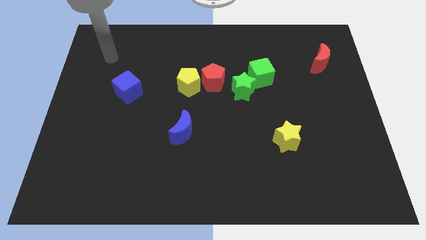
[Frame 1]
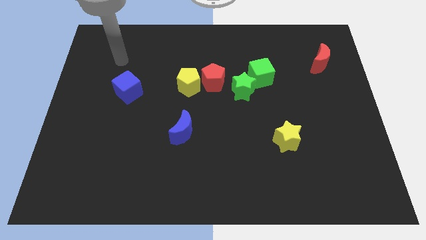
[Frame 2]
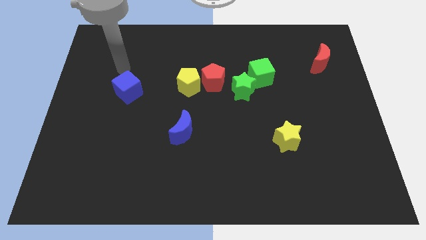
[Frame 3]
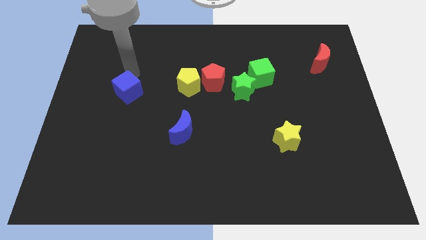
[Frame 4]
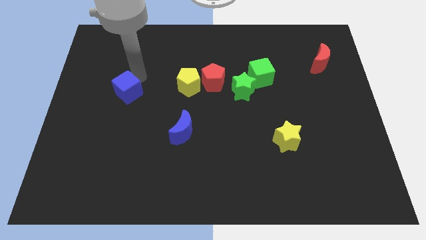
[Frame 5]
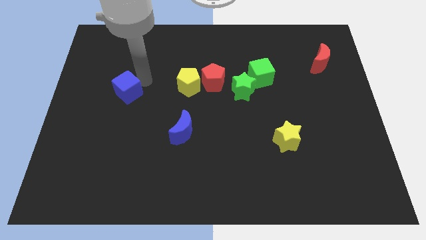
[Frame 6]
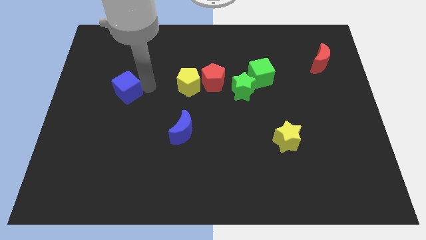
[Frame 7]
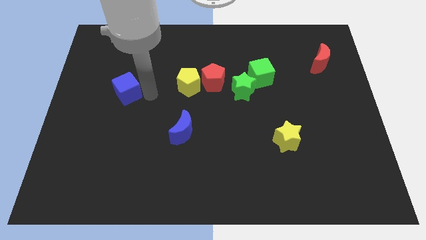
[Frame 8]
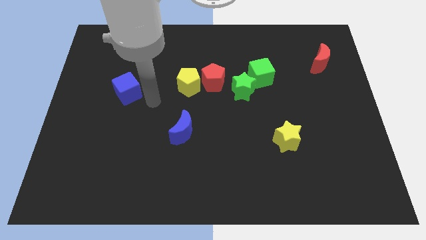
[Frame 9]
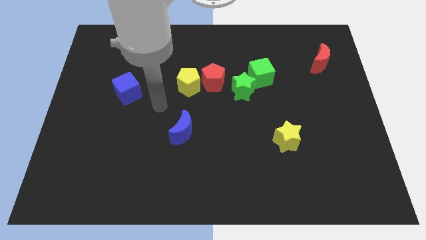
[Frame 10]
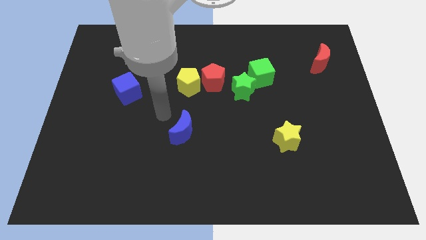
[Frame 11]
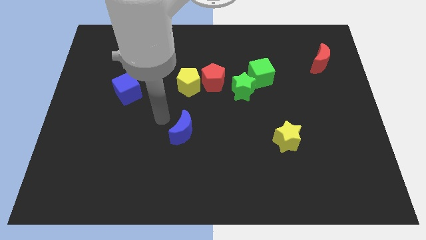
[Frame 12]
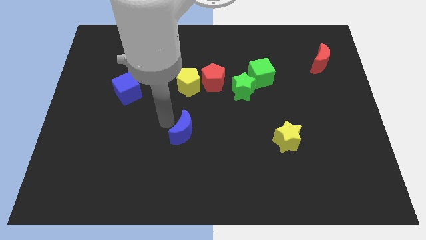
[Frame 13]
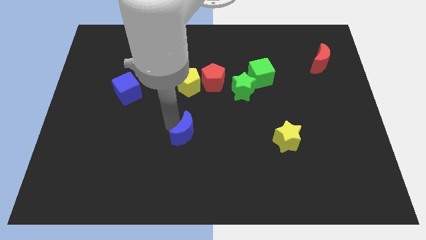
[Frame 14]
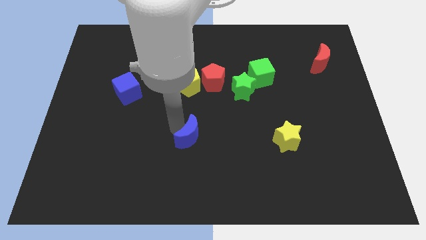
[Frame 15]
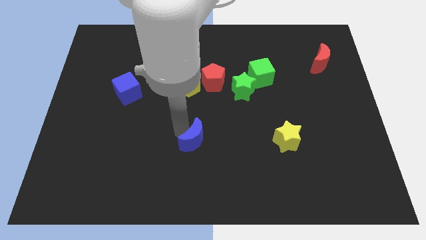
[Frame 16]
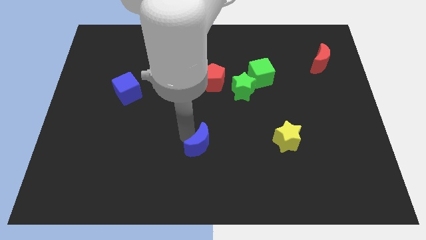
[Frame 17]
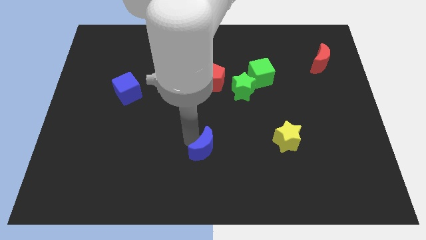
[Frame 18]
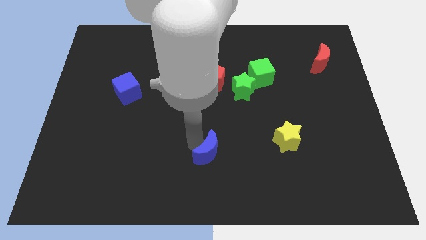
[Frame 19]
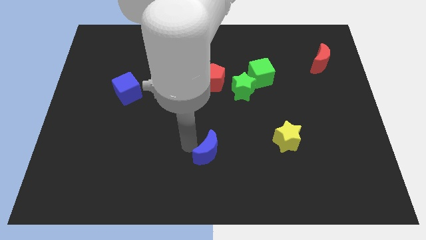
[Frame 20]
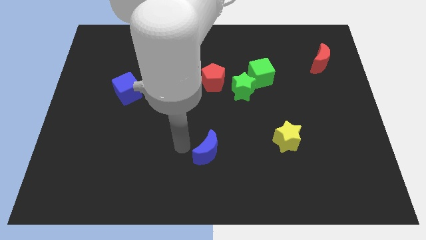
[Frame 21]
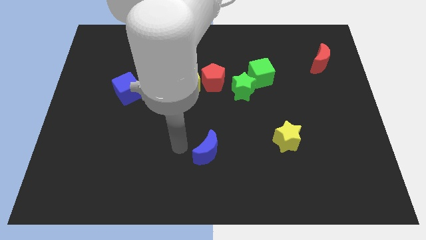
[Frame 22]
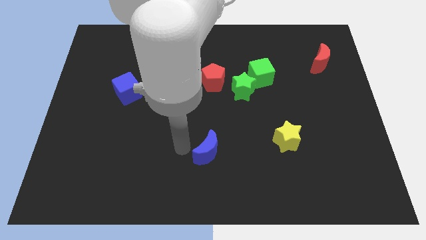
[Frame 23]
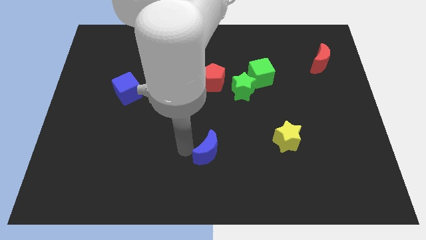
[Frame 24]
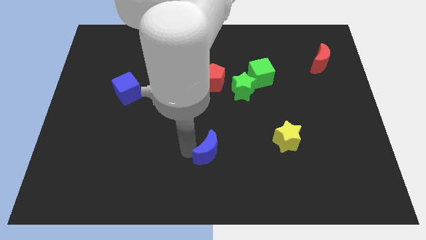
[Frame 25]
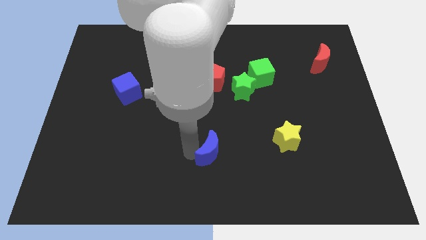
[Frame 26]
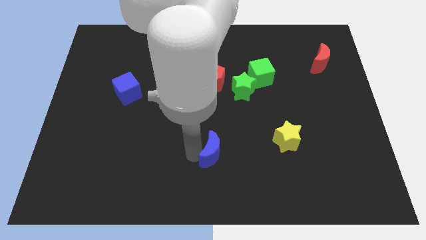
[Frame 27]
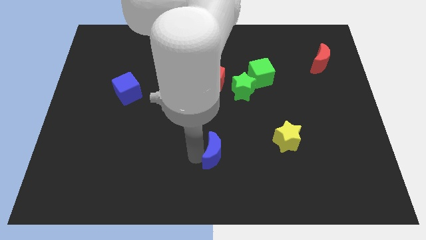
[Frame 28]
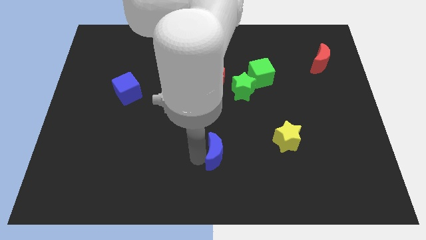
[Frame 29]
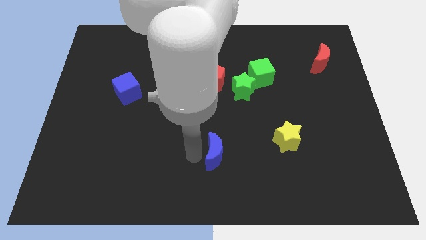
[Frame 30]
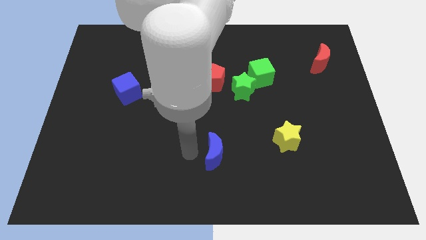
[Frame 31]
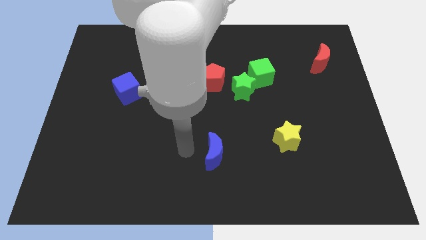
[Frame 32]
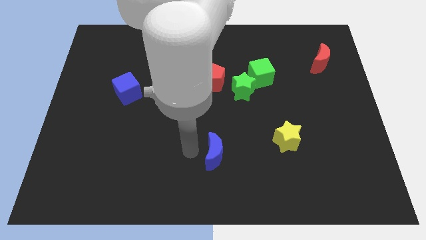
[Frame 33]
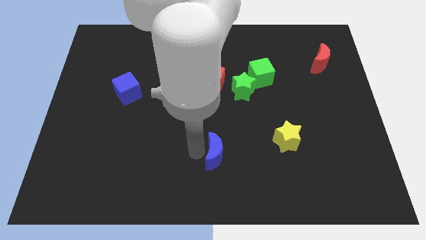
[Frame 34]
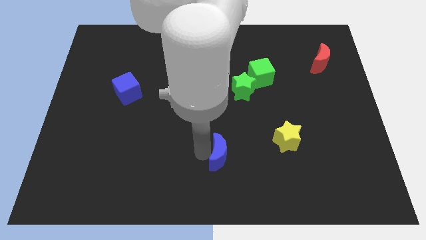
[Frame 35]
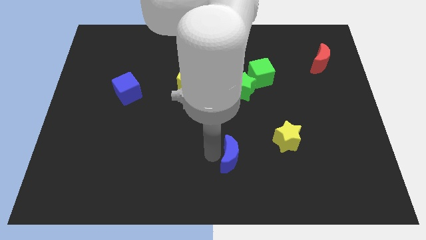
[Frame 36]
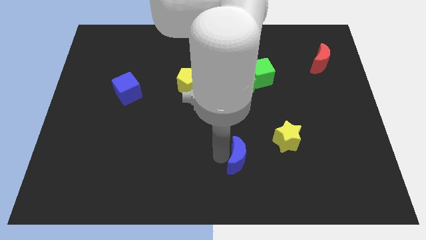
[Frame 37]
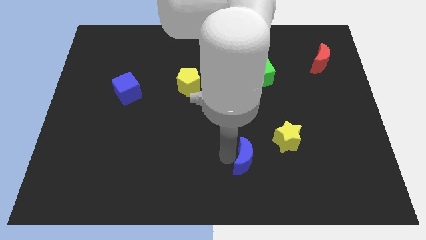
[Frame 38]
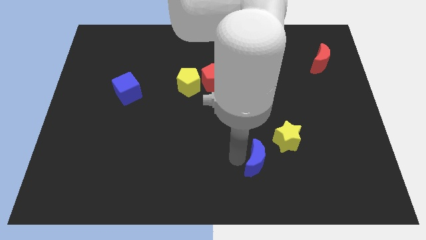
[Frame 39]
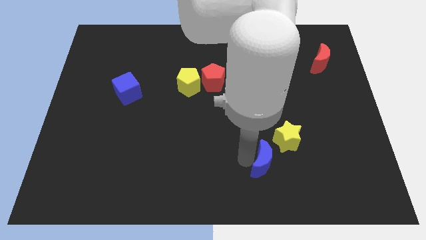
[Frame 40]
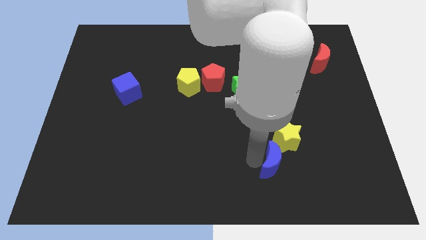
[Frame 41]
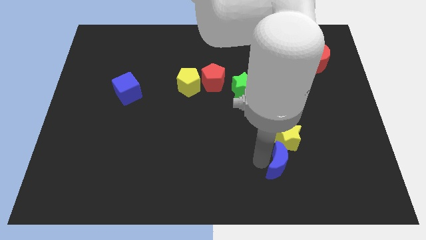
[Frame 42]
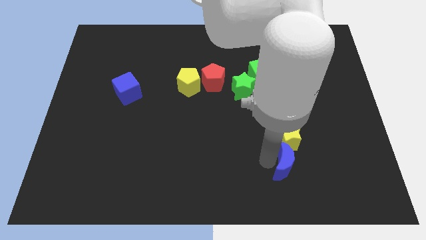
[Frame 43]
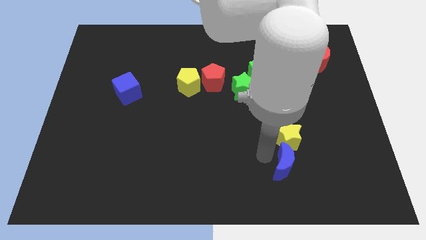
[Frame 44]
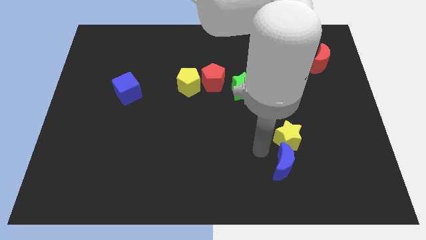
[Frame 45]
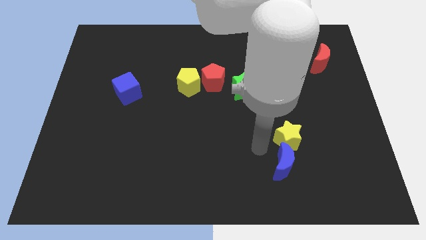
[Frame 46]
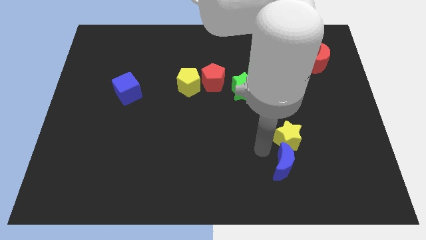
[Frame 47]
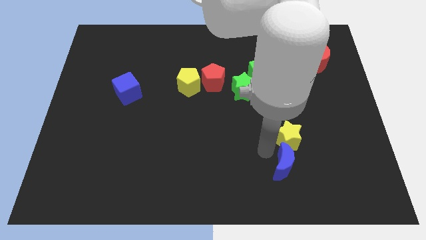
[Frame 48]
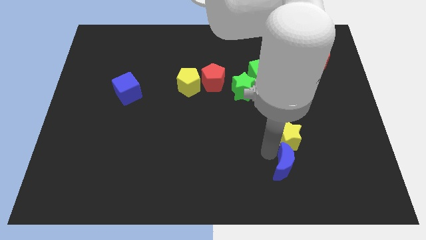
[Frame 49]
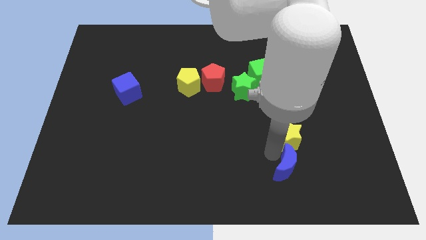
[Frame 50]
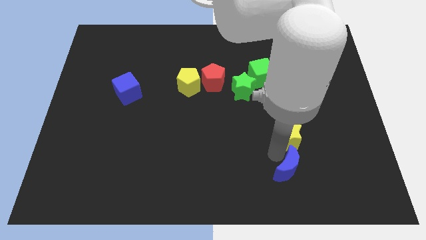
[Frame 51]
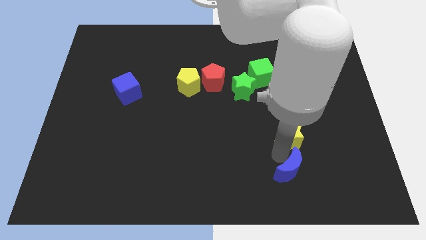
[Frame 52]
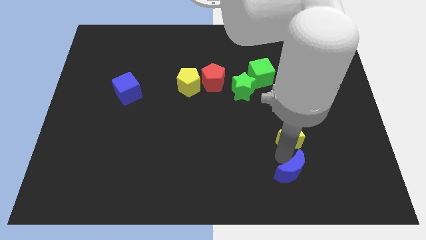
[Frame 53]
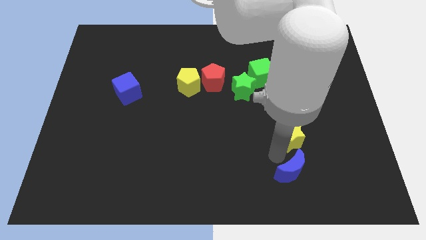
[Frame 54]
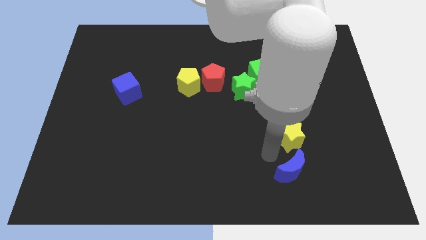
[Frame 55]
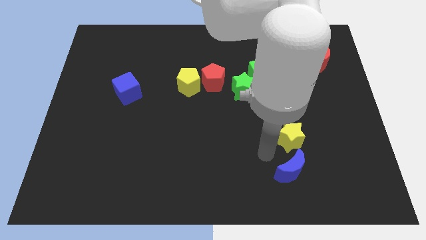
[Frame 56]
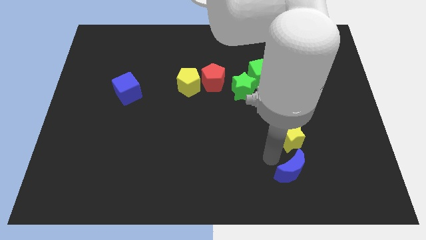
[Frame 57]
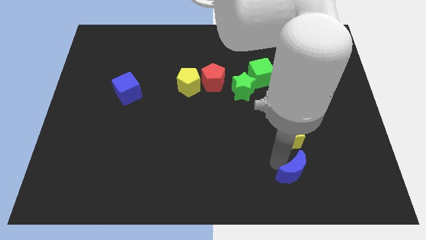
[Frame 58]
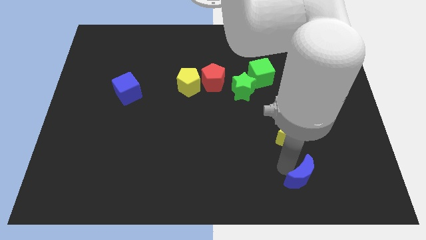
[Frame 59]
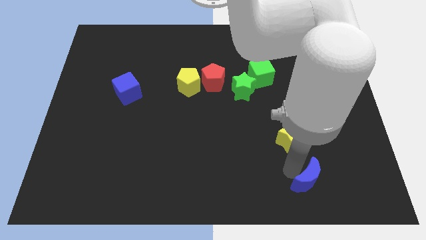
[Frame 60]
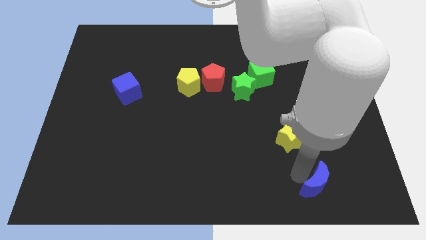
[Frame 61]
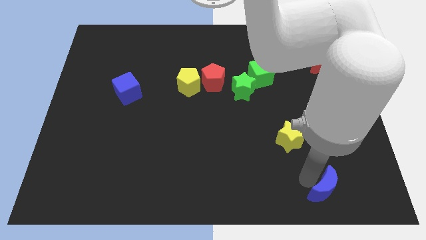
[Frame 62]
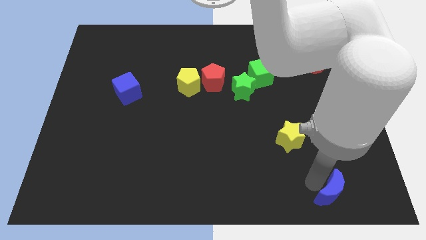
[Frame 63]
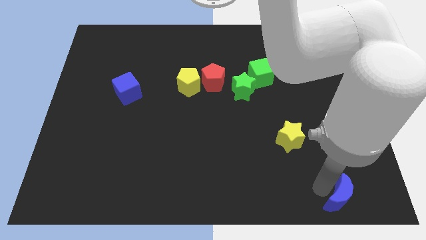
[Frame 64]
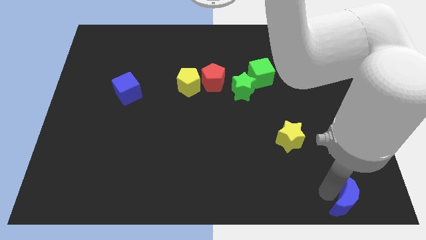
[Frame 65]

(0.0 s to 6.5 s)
put the blue moon to the lower right corner
